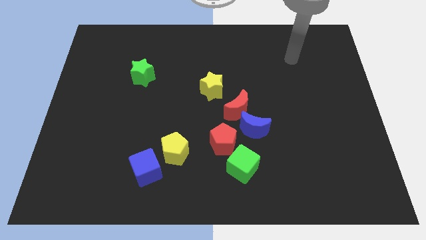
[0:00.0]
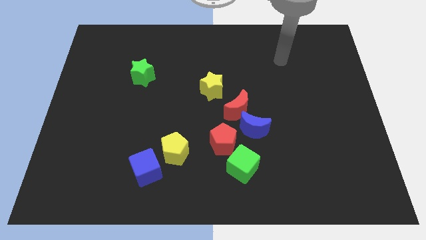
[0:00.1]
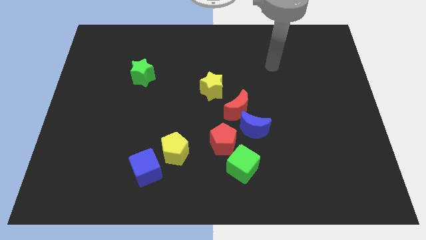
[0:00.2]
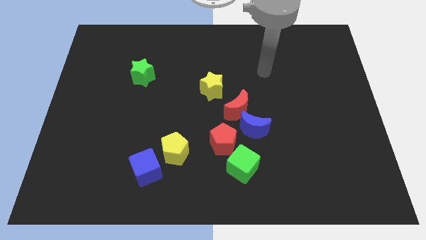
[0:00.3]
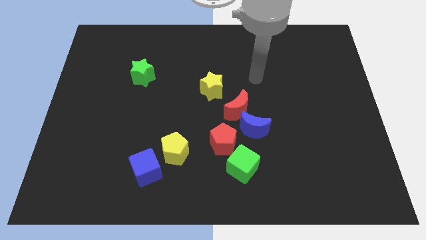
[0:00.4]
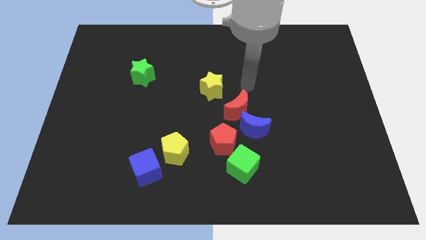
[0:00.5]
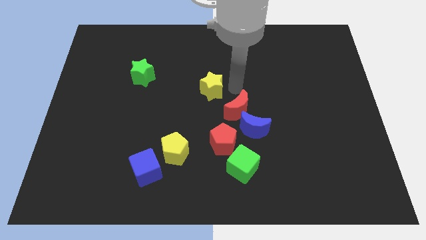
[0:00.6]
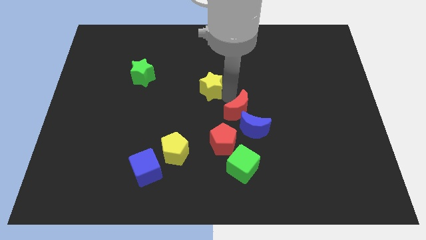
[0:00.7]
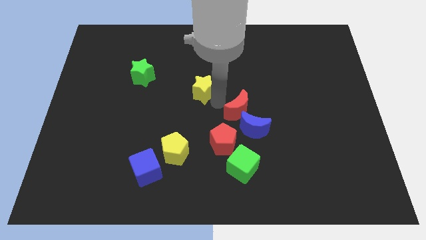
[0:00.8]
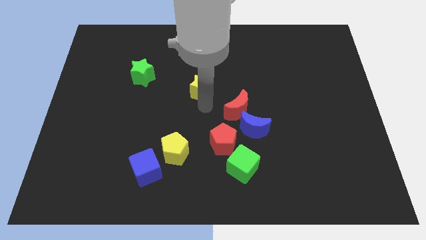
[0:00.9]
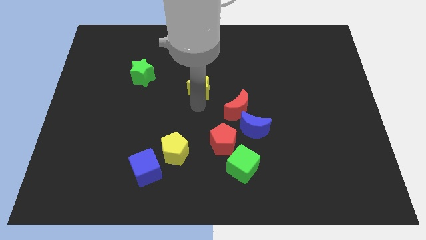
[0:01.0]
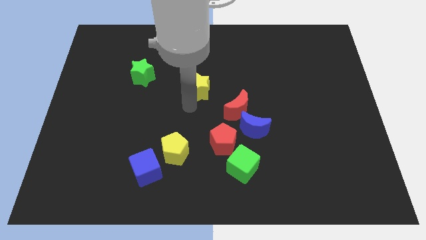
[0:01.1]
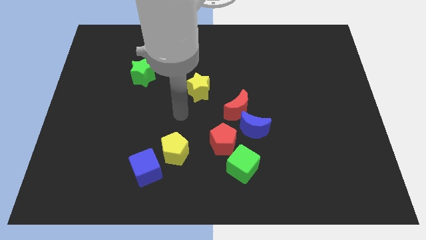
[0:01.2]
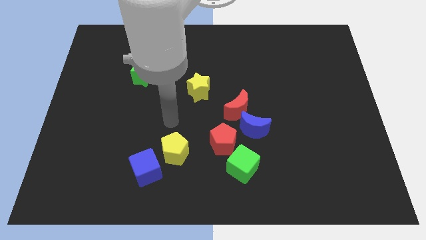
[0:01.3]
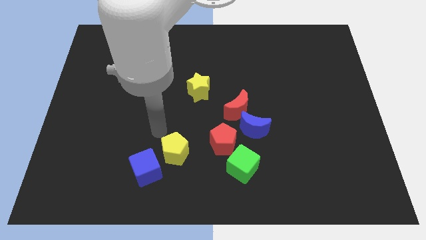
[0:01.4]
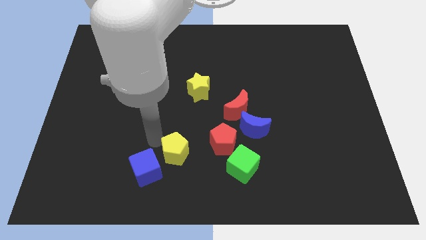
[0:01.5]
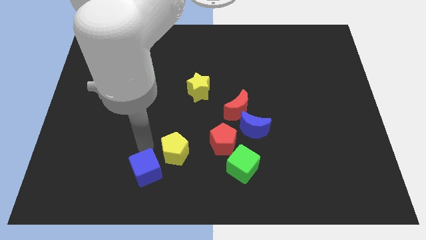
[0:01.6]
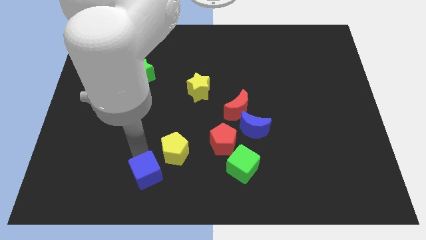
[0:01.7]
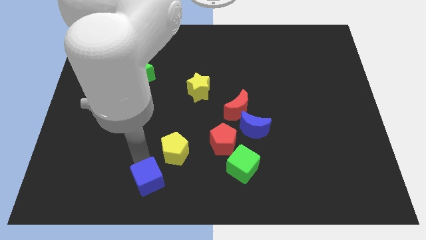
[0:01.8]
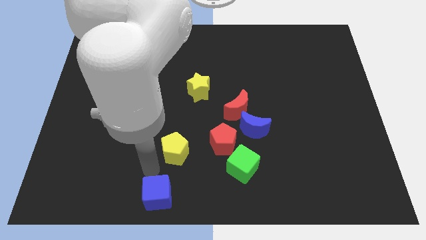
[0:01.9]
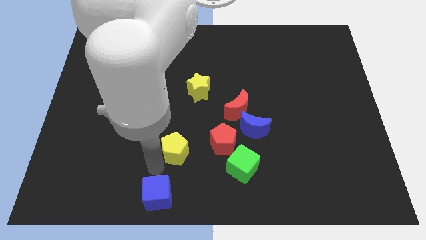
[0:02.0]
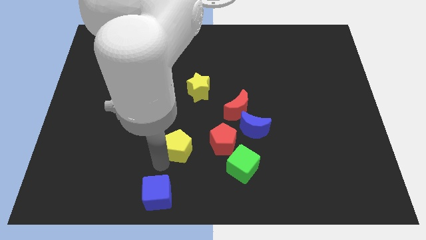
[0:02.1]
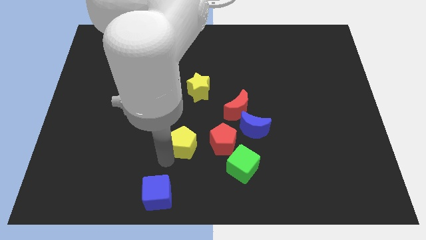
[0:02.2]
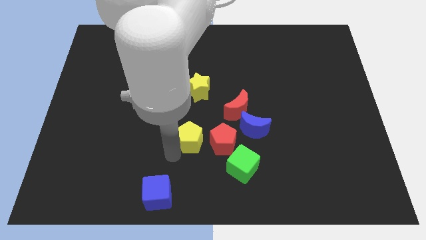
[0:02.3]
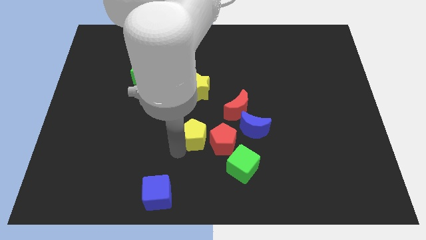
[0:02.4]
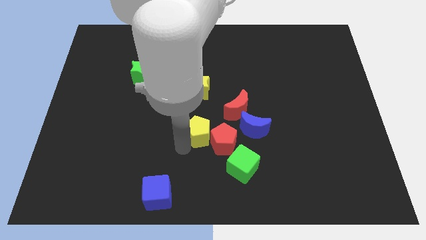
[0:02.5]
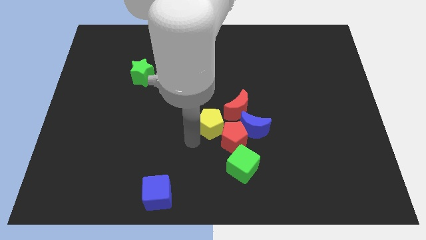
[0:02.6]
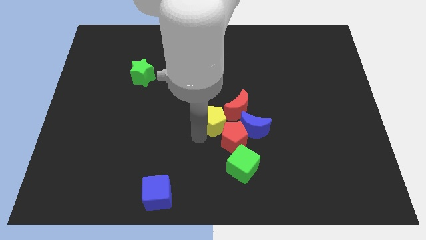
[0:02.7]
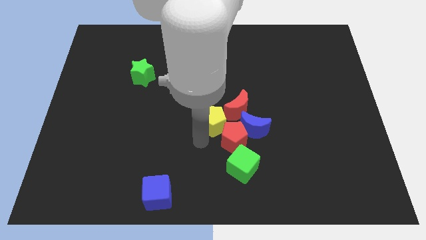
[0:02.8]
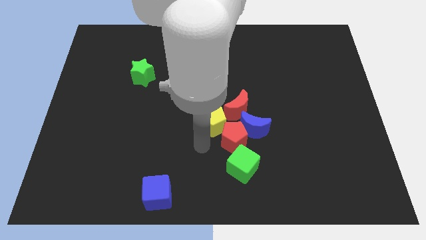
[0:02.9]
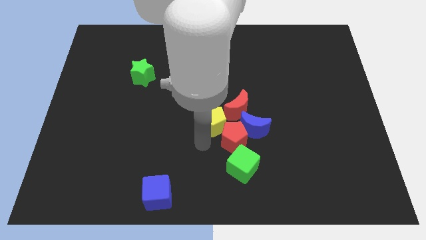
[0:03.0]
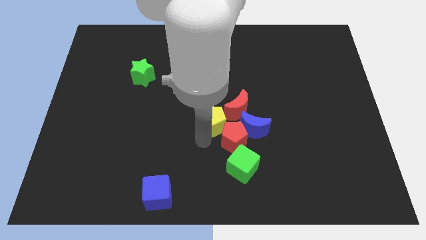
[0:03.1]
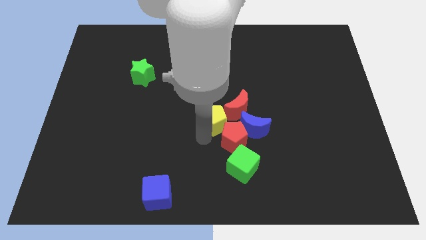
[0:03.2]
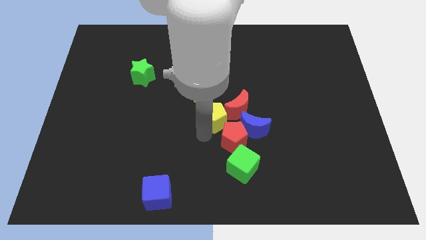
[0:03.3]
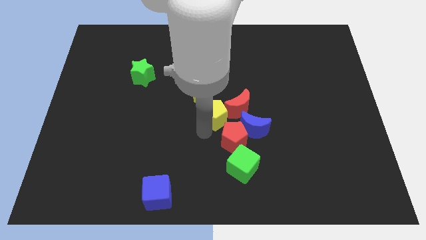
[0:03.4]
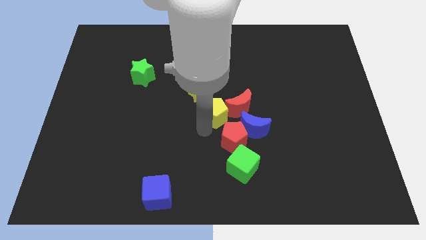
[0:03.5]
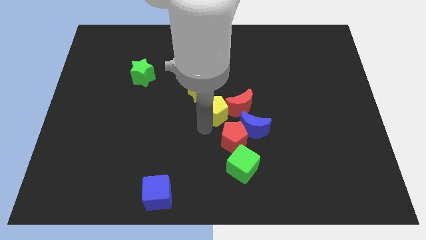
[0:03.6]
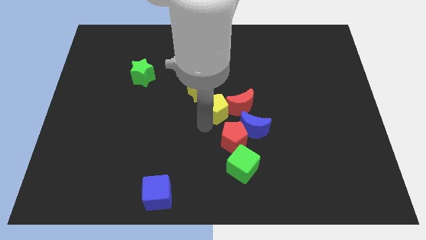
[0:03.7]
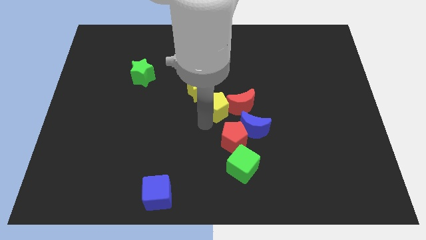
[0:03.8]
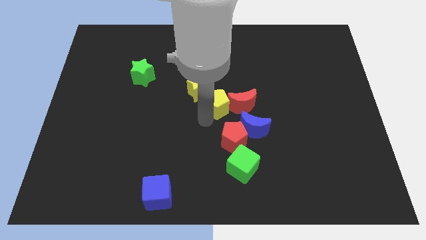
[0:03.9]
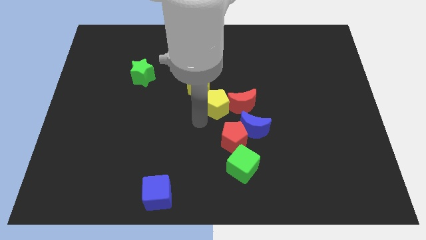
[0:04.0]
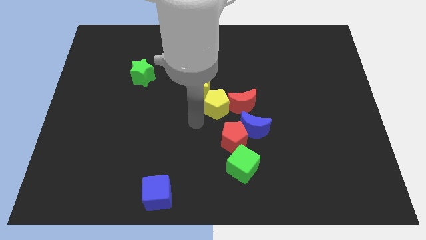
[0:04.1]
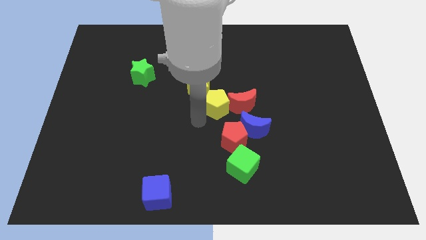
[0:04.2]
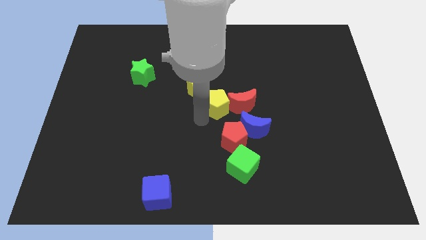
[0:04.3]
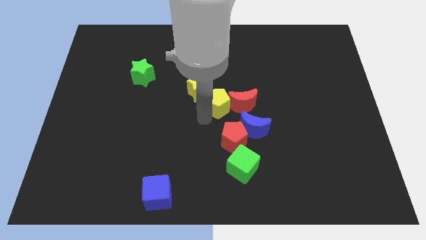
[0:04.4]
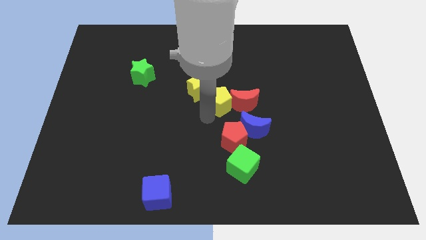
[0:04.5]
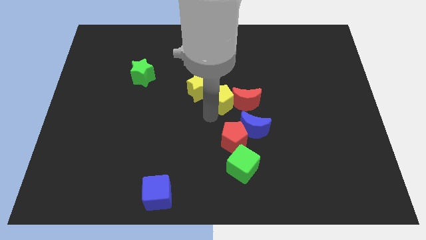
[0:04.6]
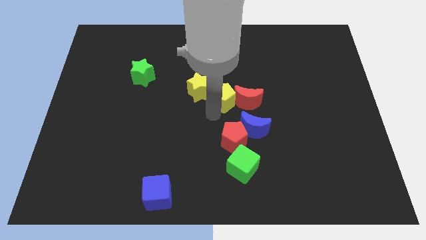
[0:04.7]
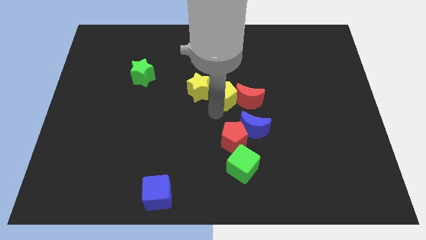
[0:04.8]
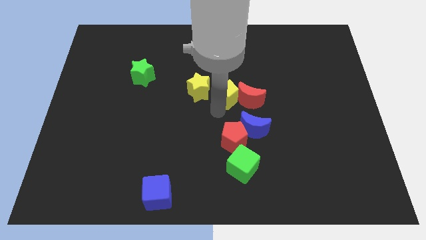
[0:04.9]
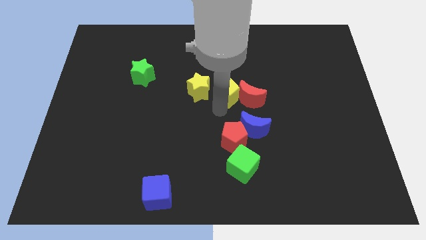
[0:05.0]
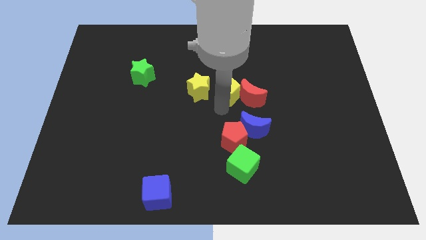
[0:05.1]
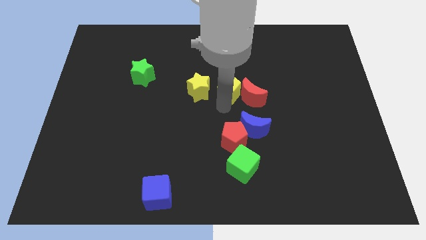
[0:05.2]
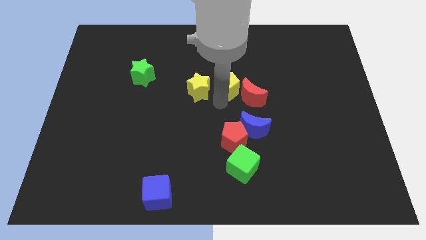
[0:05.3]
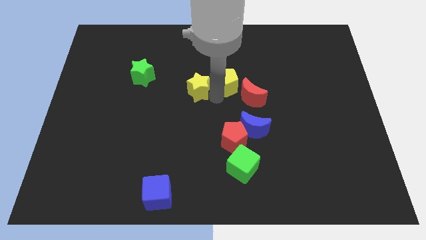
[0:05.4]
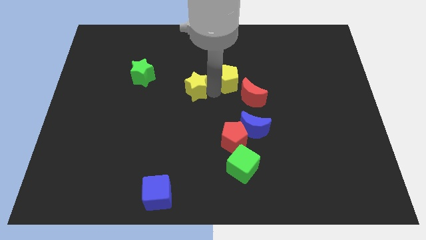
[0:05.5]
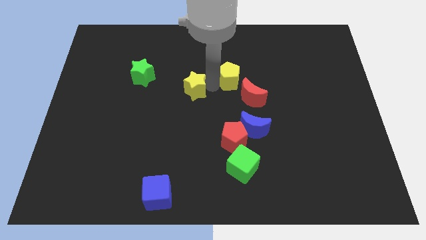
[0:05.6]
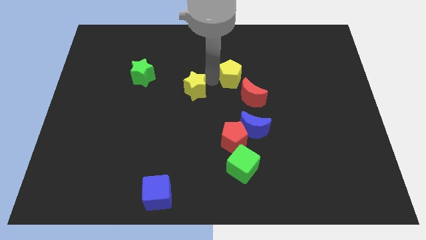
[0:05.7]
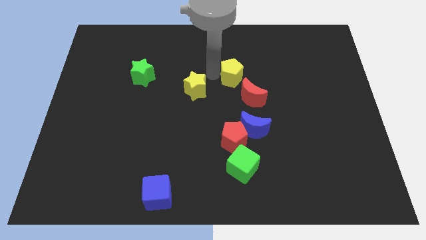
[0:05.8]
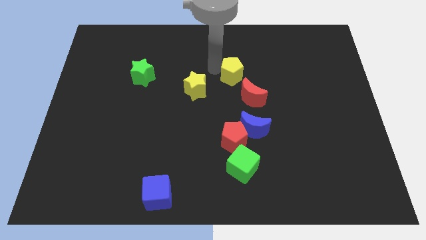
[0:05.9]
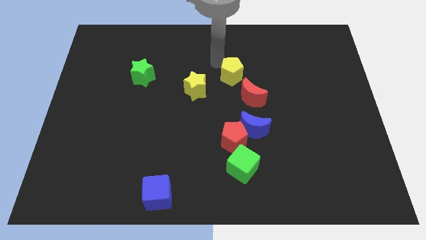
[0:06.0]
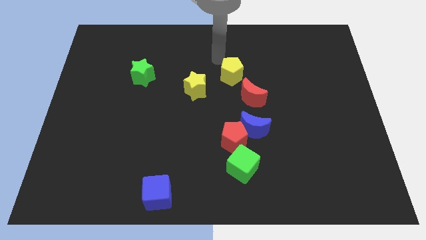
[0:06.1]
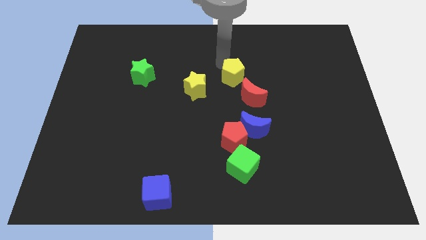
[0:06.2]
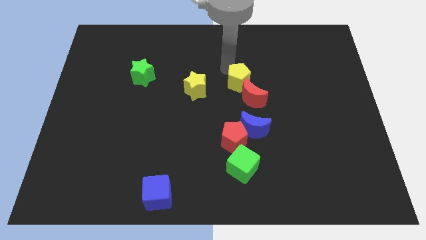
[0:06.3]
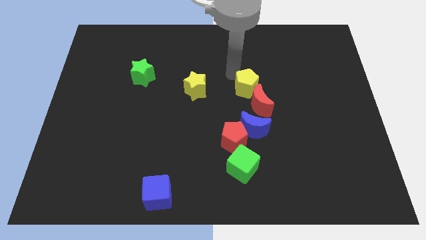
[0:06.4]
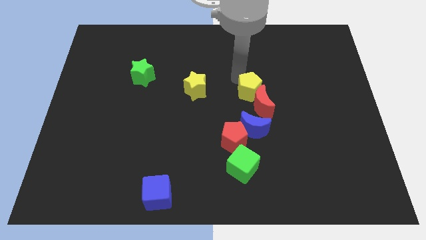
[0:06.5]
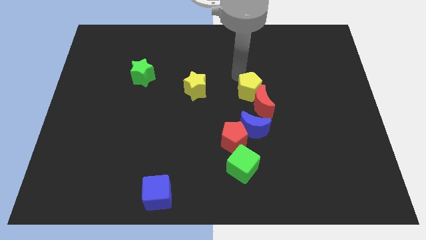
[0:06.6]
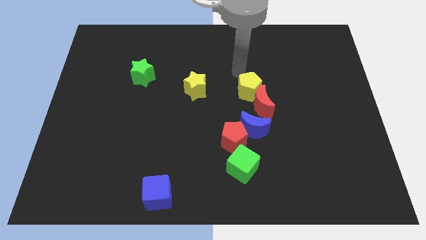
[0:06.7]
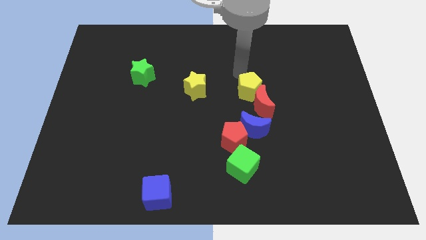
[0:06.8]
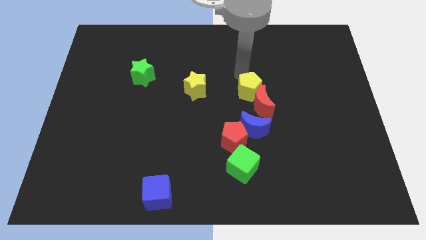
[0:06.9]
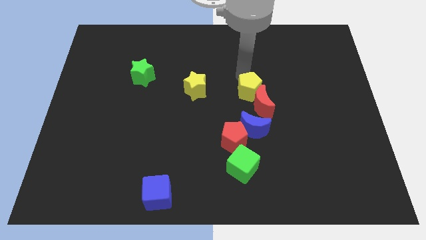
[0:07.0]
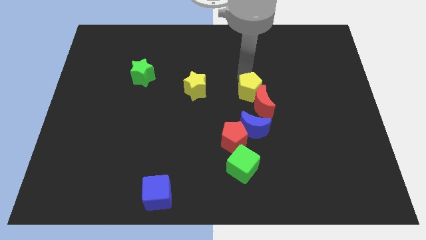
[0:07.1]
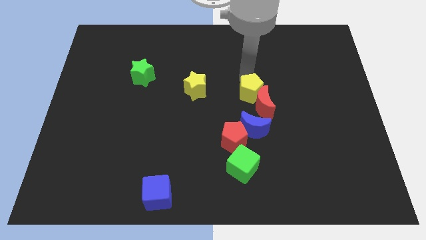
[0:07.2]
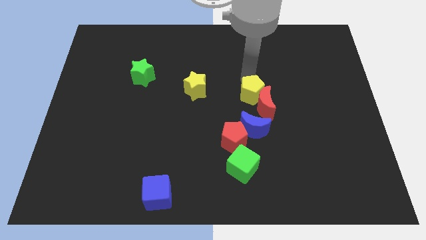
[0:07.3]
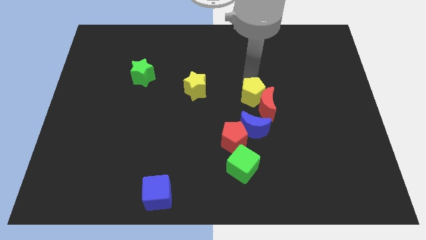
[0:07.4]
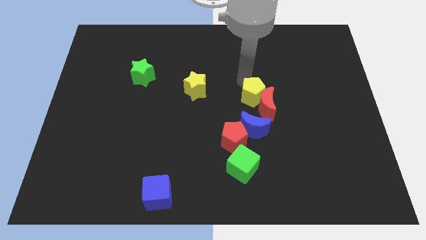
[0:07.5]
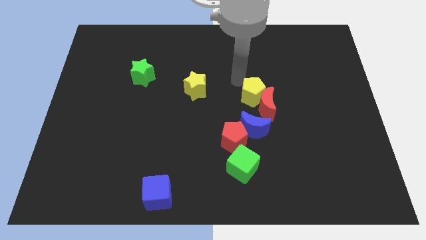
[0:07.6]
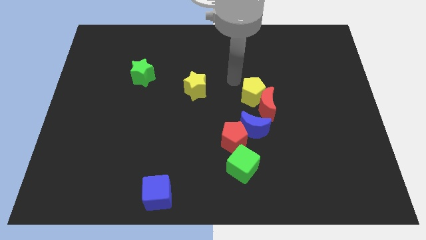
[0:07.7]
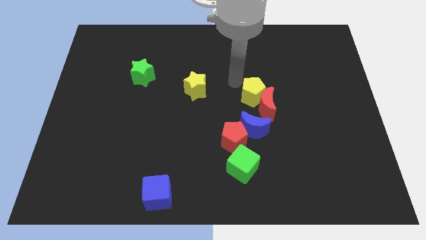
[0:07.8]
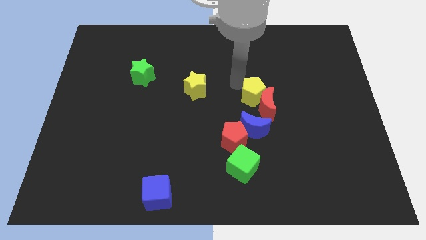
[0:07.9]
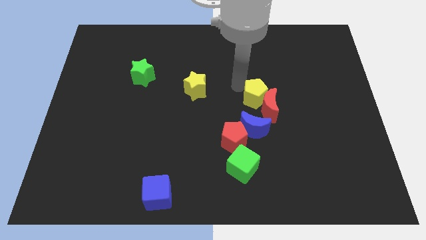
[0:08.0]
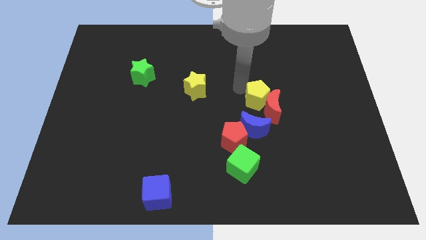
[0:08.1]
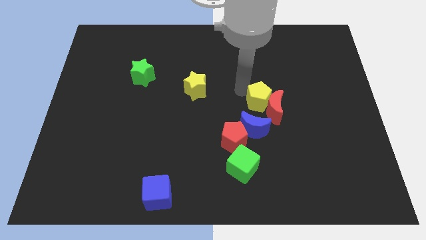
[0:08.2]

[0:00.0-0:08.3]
put the yellow pentagon to the top right of the blue moon
